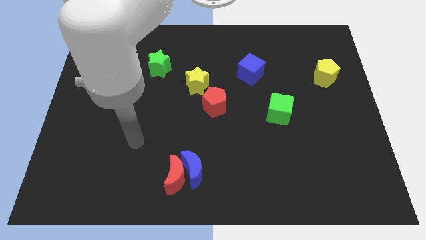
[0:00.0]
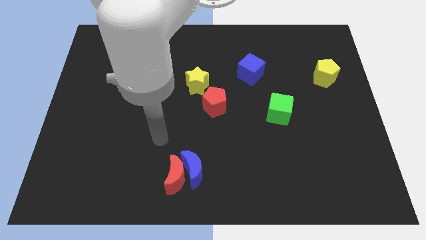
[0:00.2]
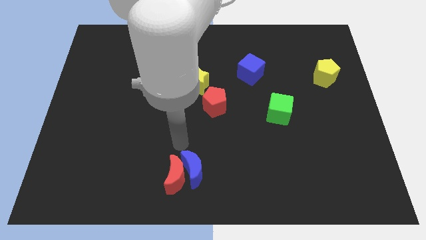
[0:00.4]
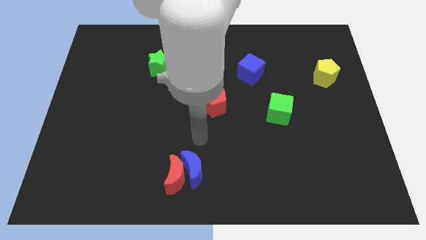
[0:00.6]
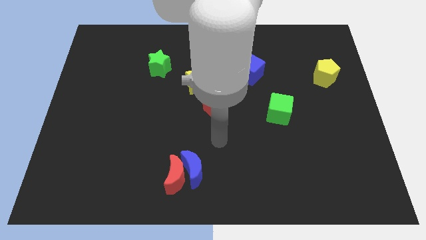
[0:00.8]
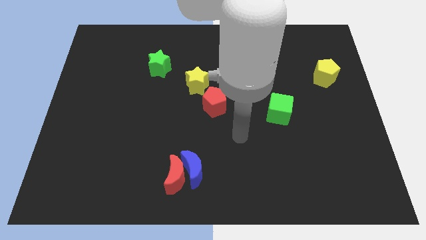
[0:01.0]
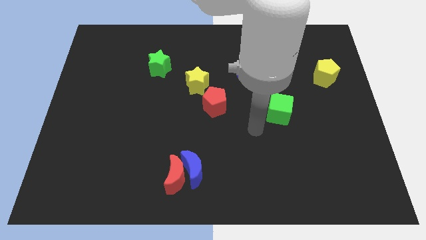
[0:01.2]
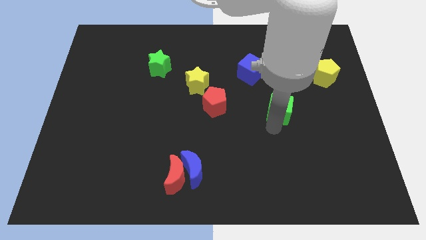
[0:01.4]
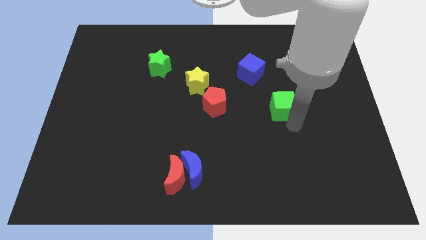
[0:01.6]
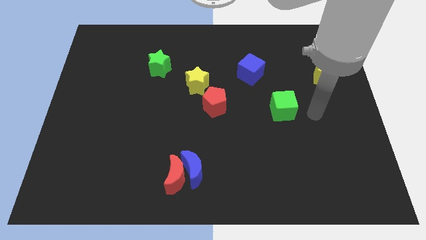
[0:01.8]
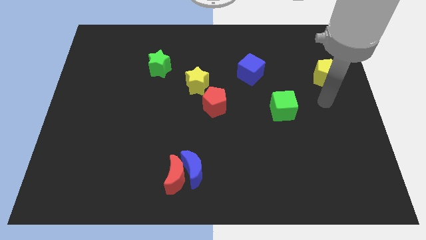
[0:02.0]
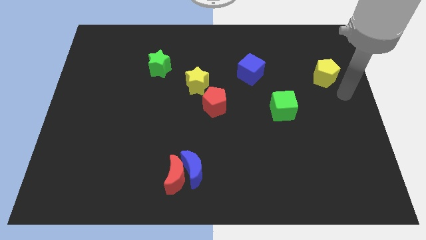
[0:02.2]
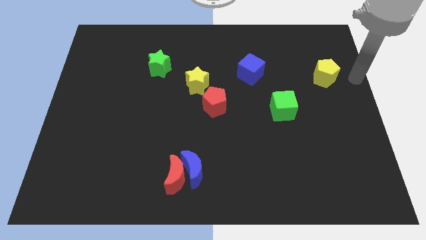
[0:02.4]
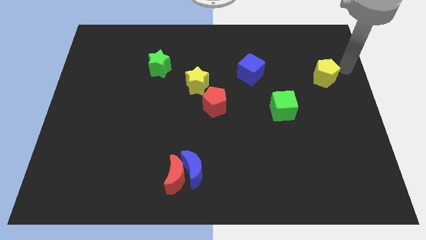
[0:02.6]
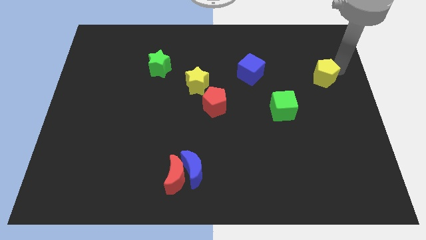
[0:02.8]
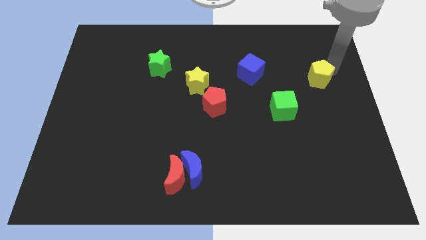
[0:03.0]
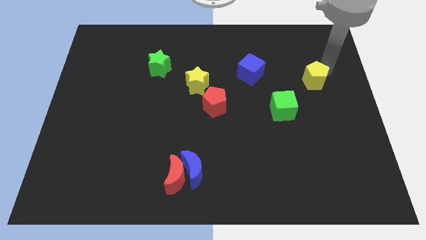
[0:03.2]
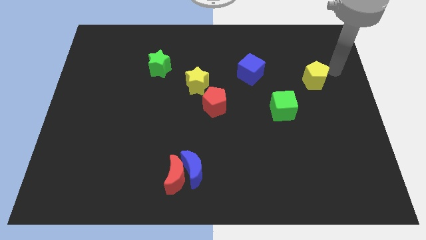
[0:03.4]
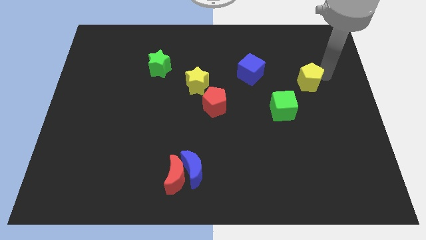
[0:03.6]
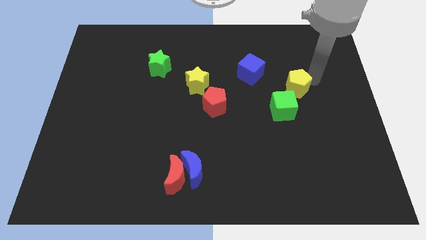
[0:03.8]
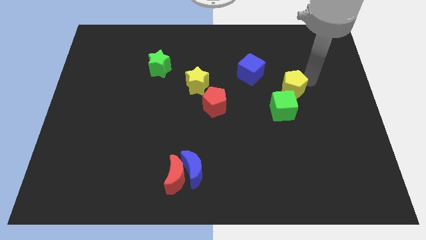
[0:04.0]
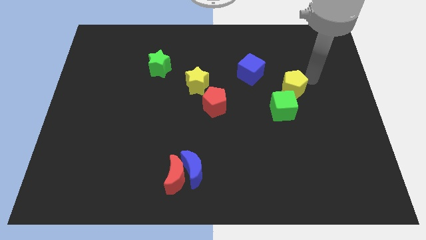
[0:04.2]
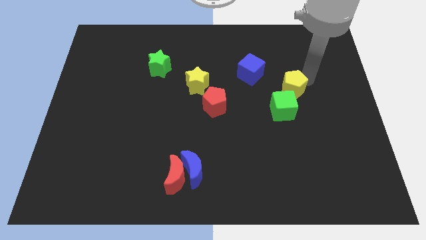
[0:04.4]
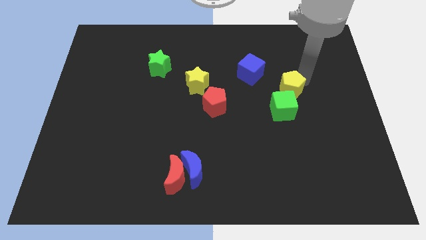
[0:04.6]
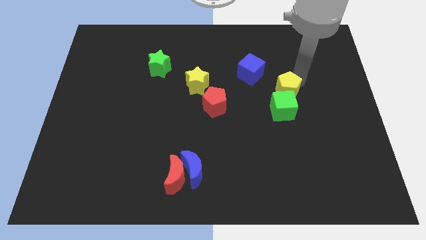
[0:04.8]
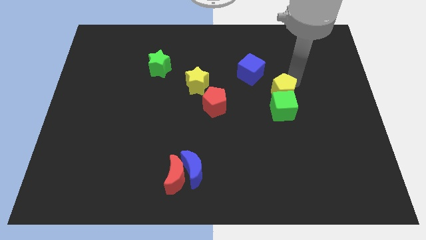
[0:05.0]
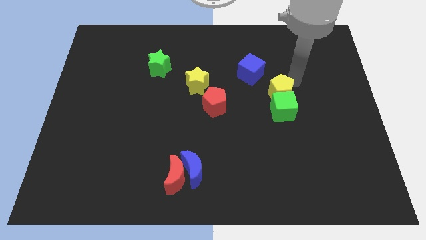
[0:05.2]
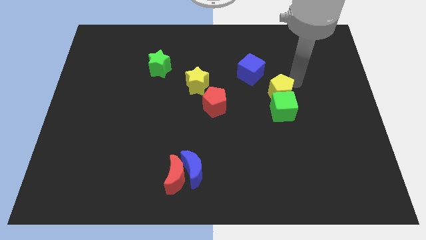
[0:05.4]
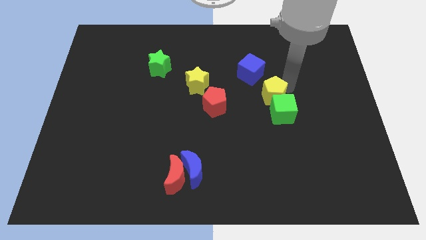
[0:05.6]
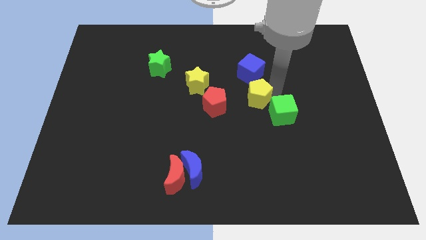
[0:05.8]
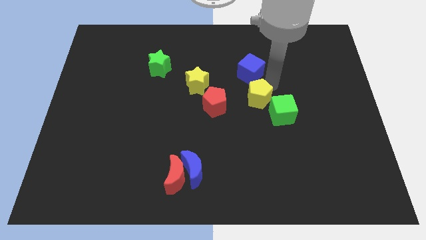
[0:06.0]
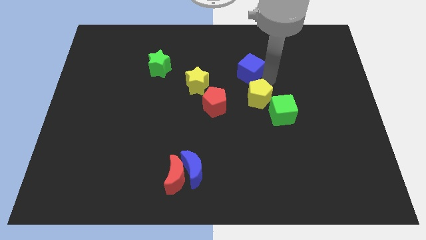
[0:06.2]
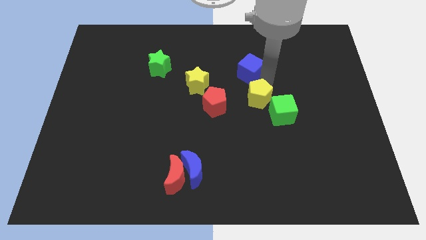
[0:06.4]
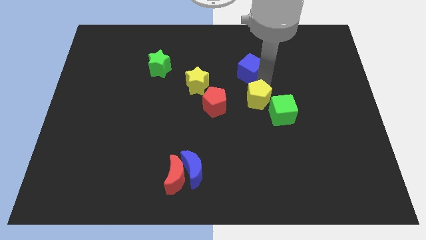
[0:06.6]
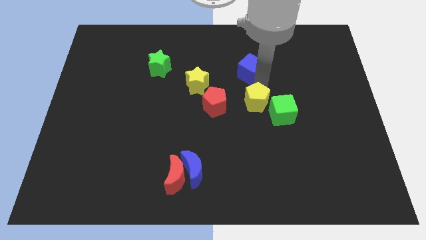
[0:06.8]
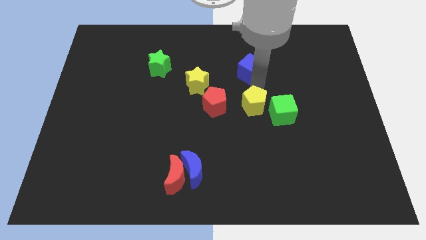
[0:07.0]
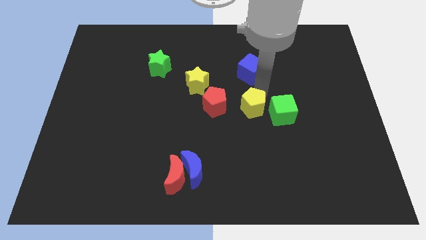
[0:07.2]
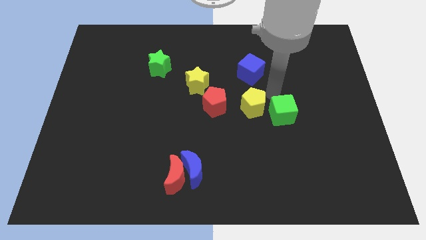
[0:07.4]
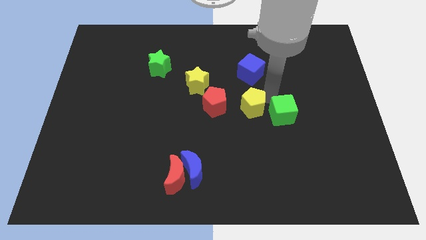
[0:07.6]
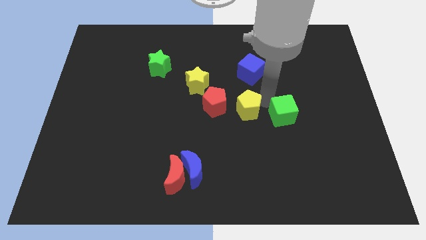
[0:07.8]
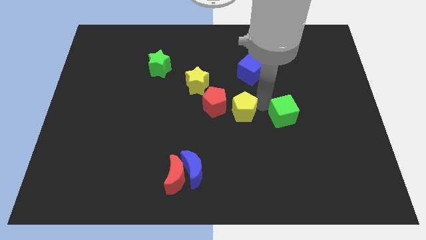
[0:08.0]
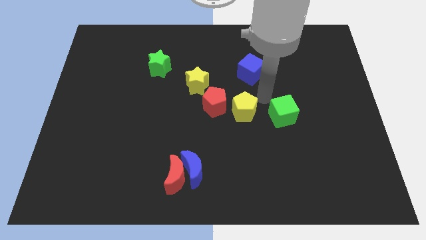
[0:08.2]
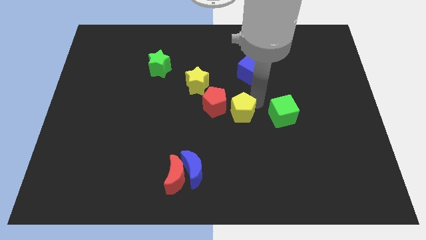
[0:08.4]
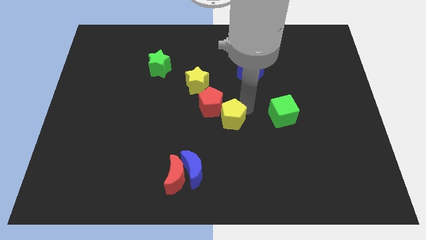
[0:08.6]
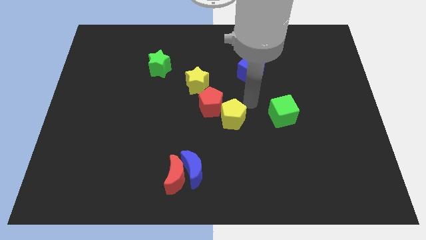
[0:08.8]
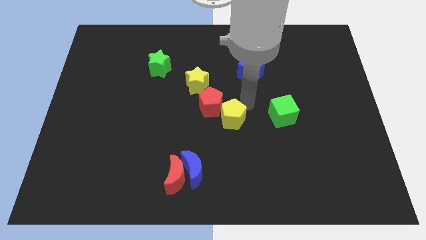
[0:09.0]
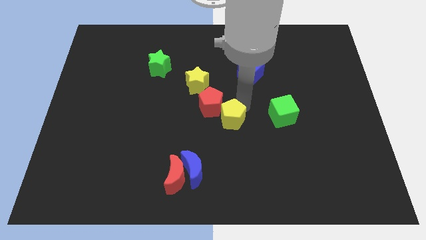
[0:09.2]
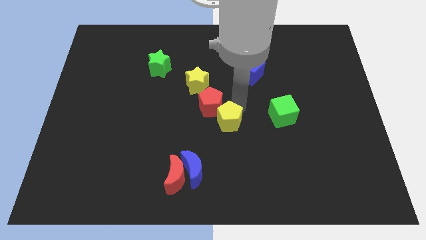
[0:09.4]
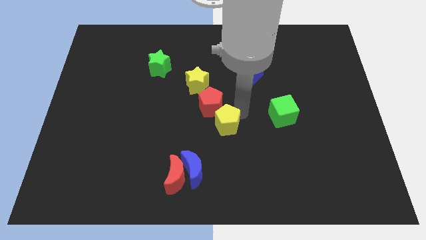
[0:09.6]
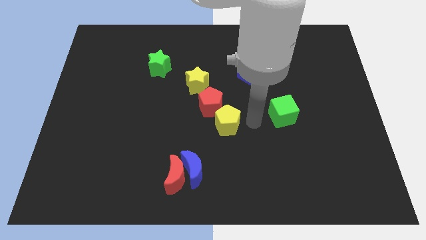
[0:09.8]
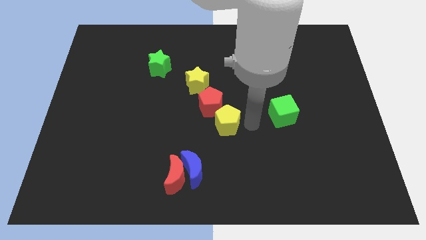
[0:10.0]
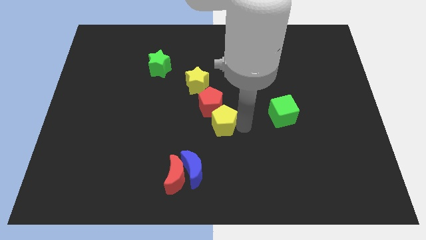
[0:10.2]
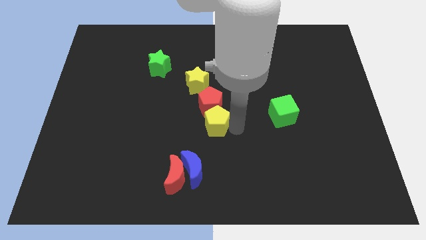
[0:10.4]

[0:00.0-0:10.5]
move the yellow pentagon to the bottom left of the red pentagon

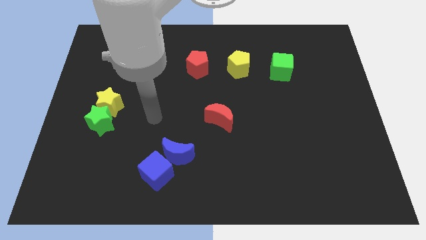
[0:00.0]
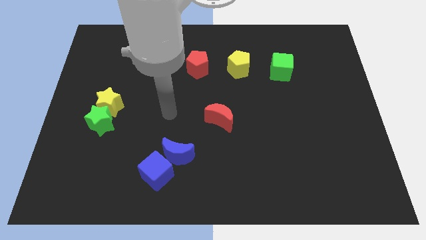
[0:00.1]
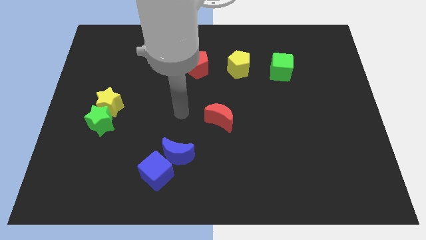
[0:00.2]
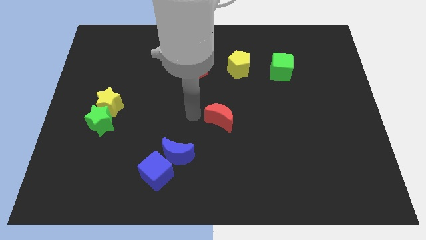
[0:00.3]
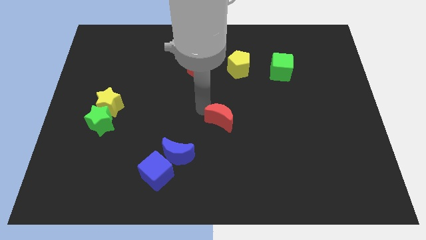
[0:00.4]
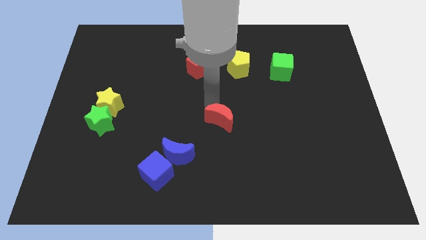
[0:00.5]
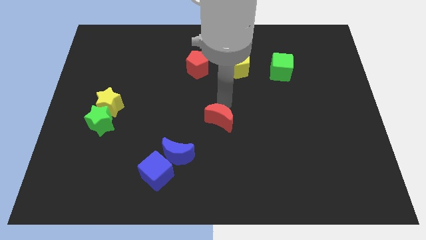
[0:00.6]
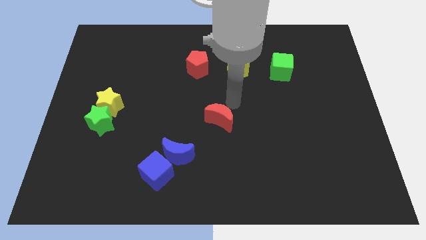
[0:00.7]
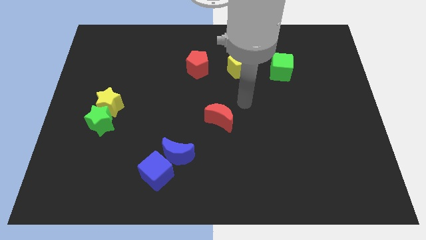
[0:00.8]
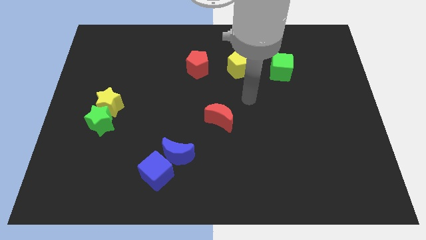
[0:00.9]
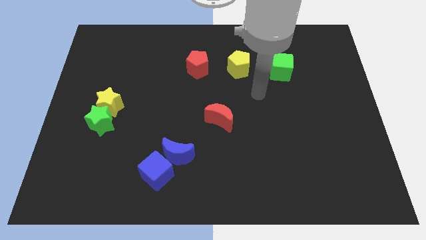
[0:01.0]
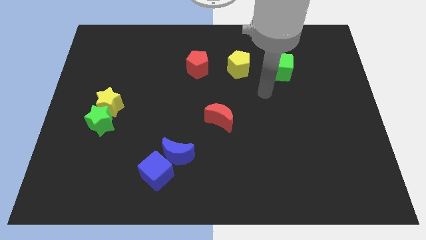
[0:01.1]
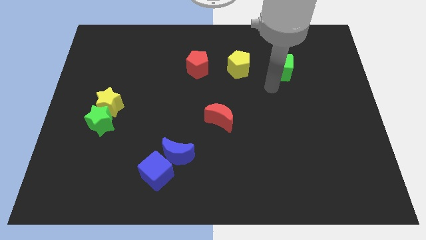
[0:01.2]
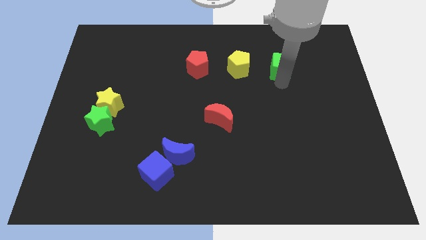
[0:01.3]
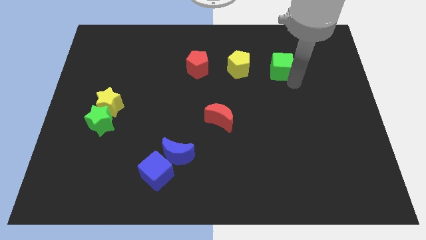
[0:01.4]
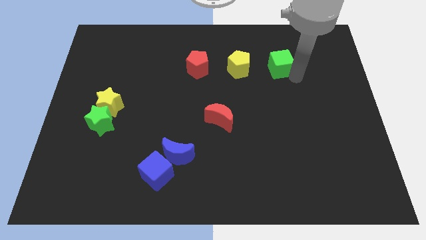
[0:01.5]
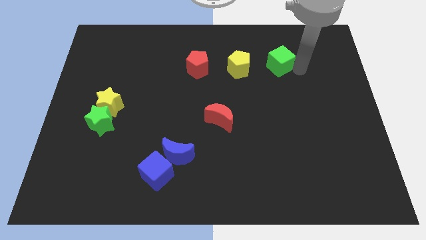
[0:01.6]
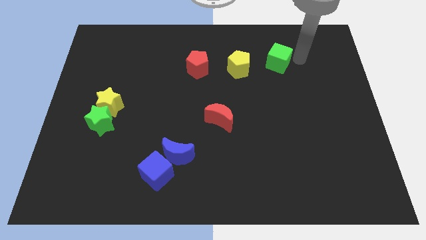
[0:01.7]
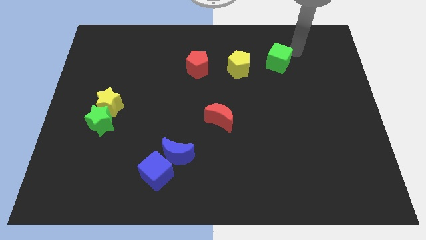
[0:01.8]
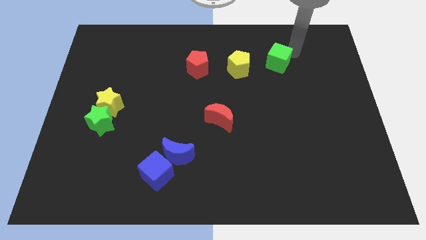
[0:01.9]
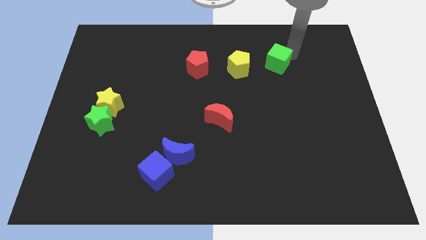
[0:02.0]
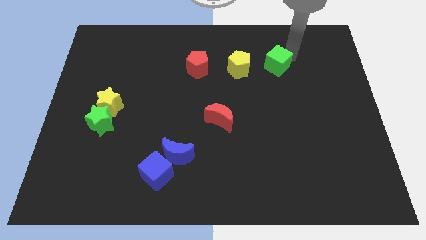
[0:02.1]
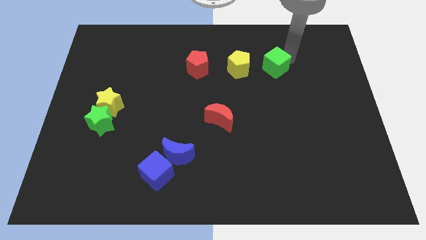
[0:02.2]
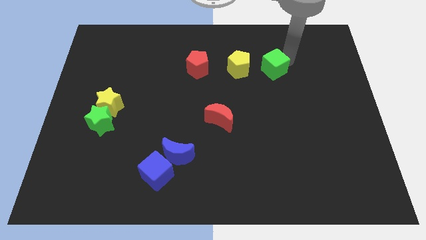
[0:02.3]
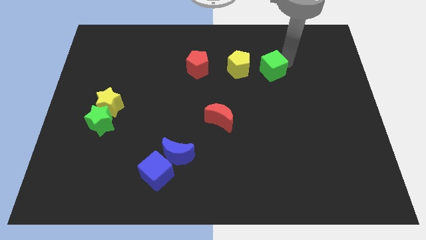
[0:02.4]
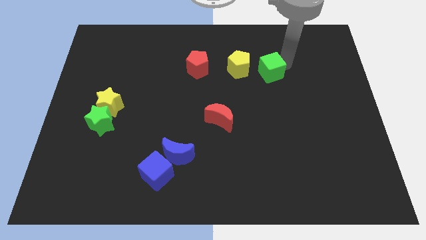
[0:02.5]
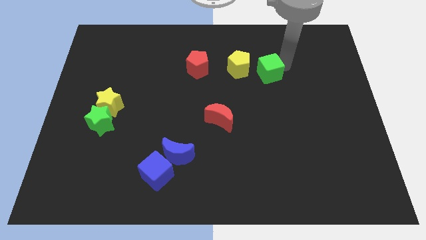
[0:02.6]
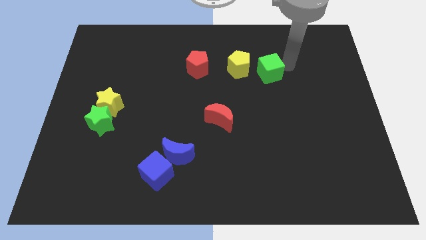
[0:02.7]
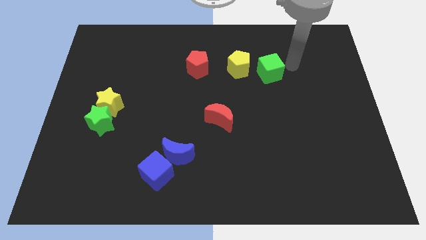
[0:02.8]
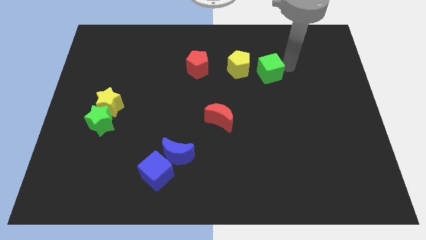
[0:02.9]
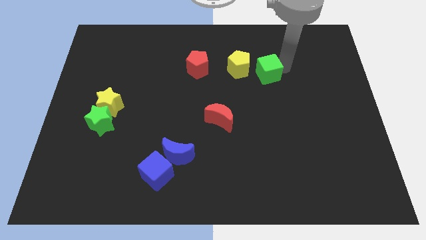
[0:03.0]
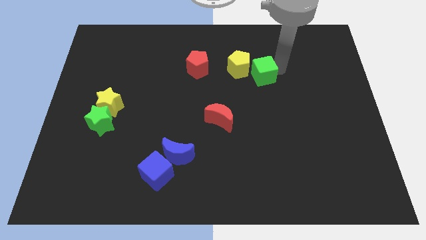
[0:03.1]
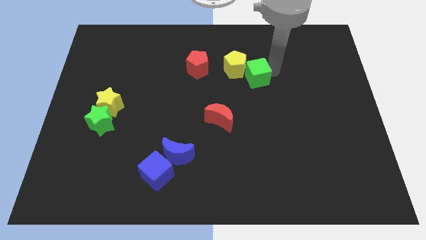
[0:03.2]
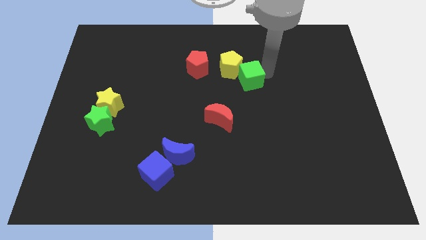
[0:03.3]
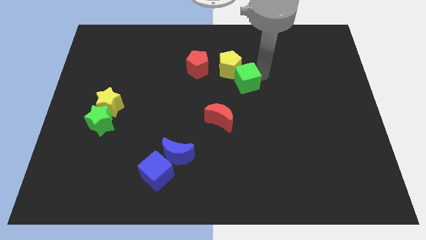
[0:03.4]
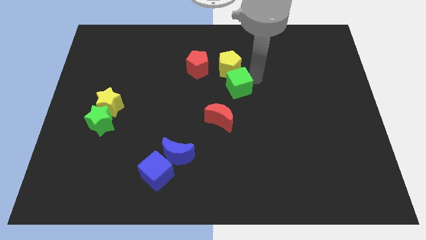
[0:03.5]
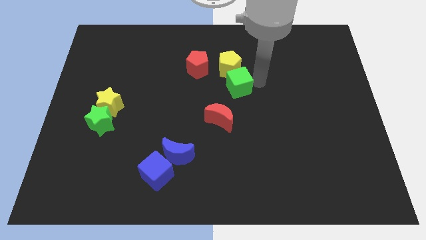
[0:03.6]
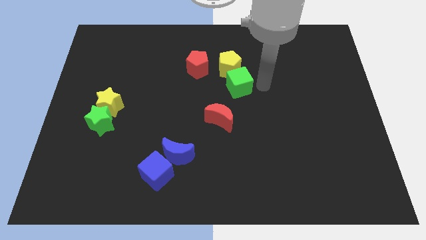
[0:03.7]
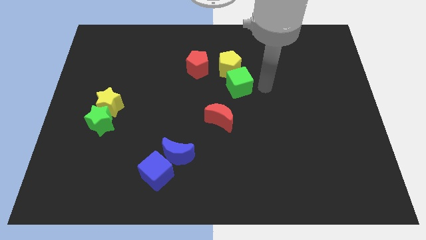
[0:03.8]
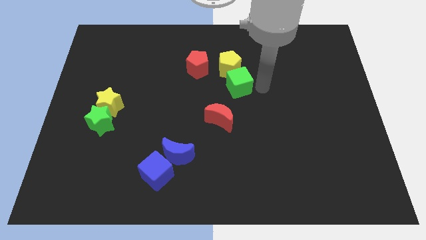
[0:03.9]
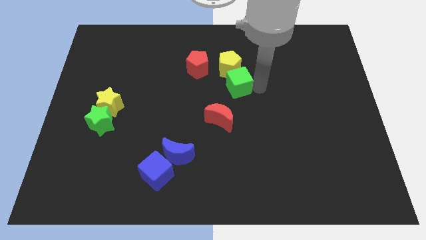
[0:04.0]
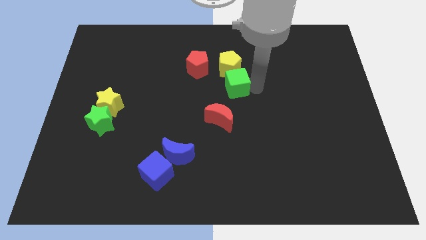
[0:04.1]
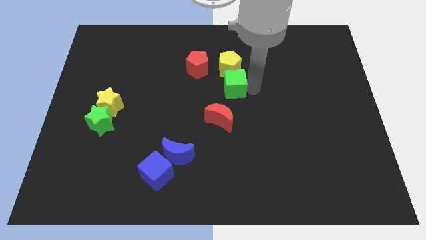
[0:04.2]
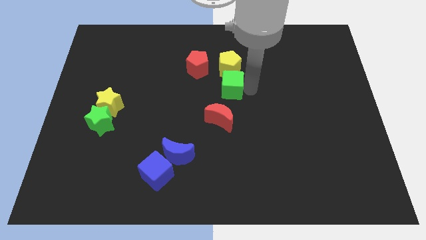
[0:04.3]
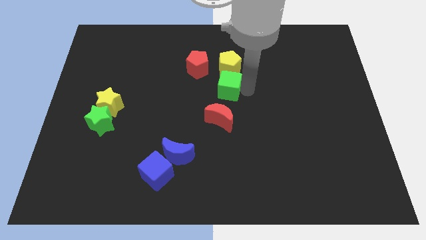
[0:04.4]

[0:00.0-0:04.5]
put the green cube to the bottom left of the yellow pentagon
